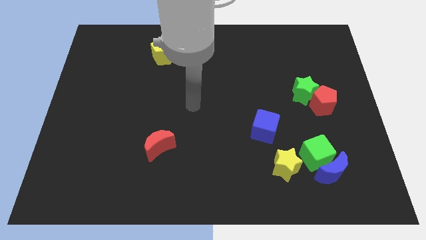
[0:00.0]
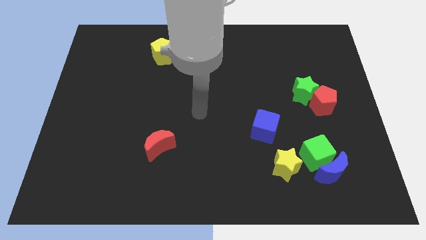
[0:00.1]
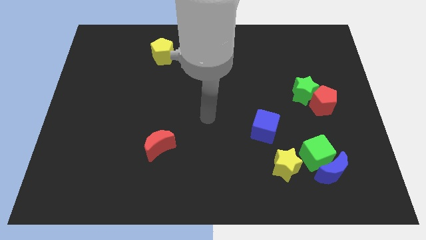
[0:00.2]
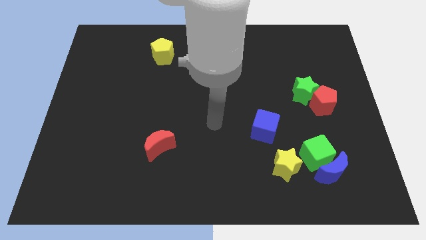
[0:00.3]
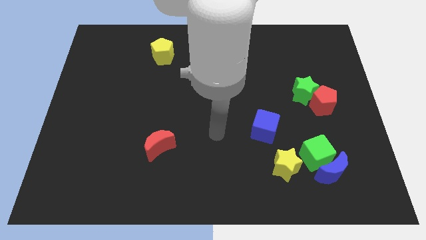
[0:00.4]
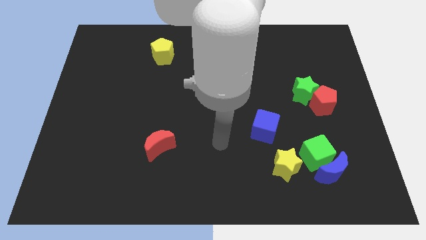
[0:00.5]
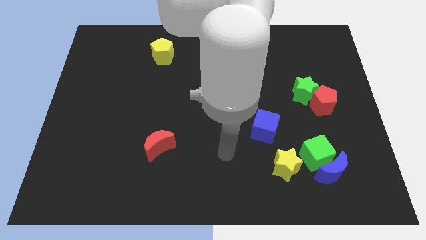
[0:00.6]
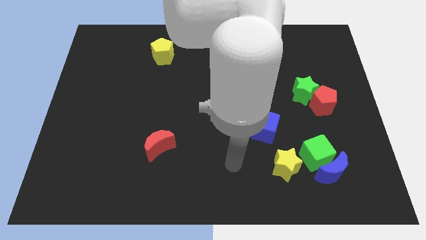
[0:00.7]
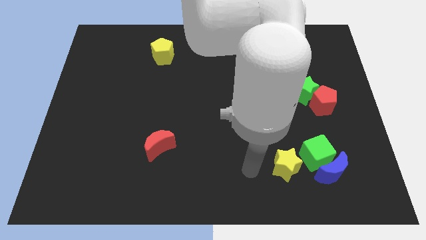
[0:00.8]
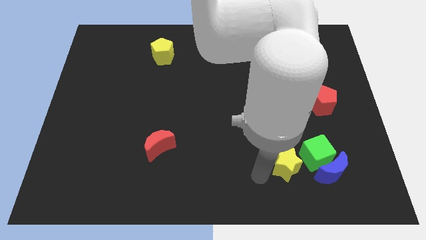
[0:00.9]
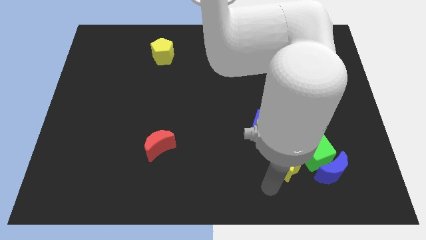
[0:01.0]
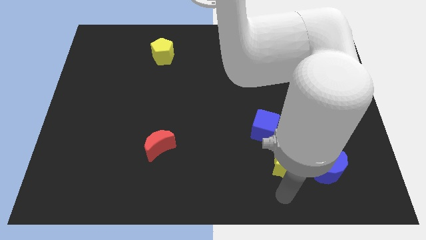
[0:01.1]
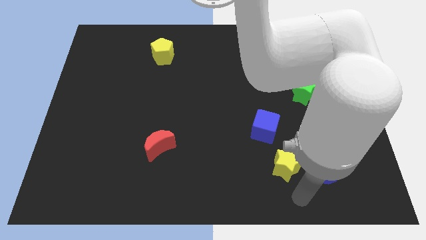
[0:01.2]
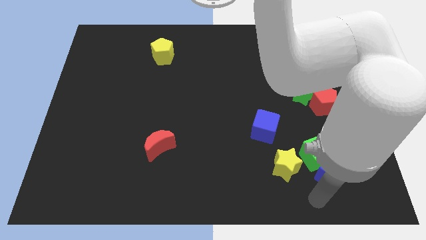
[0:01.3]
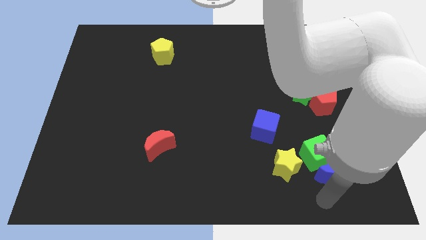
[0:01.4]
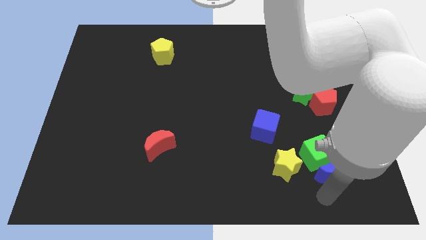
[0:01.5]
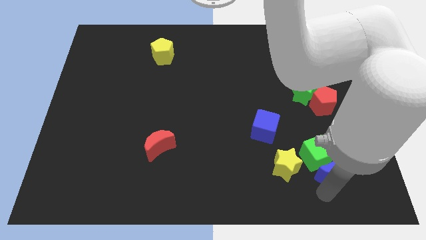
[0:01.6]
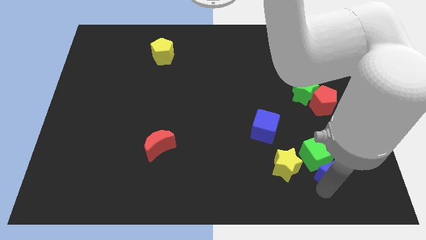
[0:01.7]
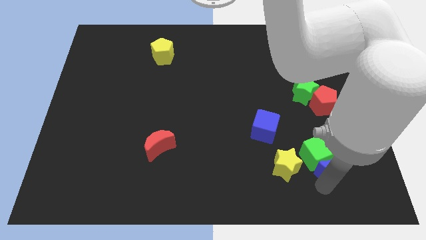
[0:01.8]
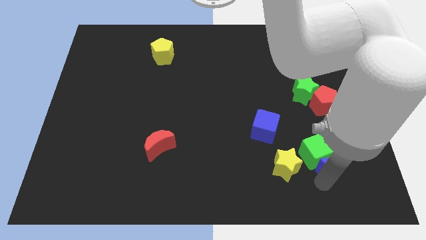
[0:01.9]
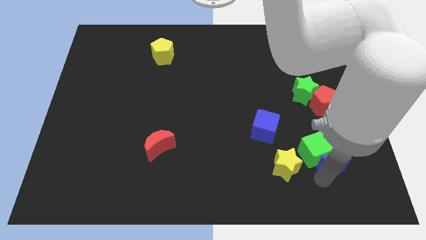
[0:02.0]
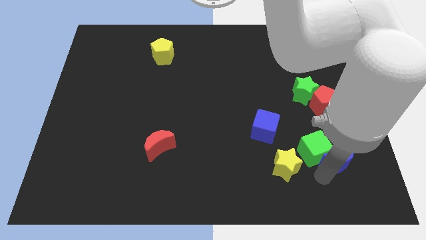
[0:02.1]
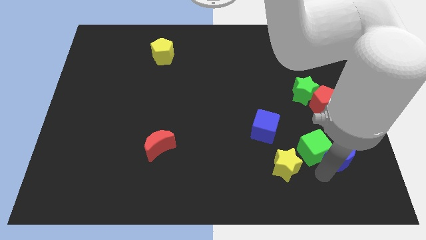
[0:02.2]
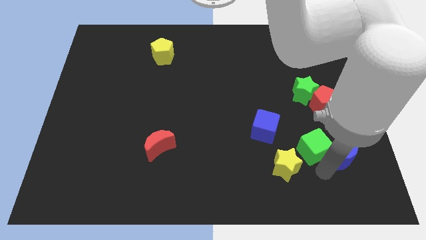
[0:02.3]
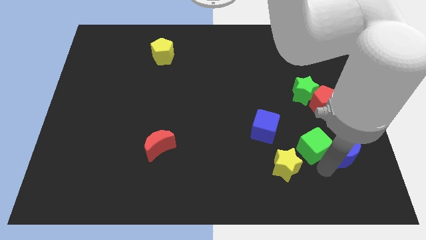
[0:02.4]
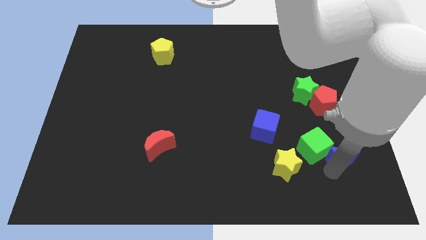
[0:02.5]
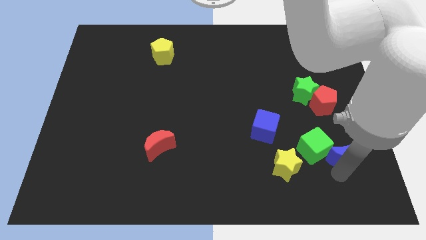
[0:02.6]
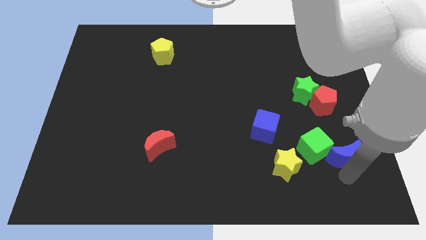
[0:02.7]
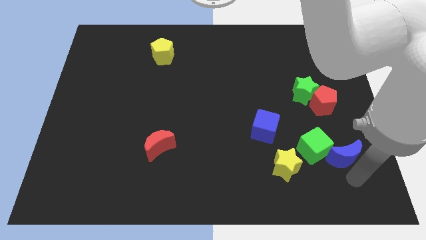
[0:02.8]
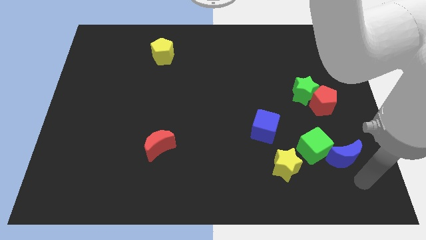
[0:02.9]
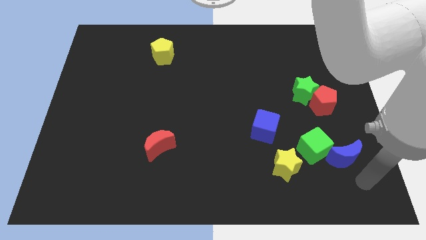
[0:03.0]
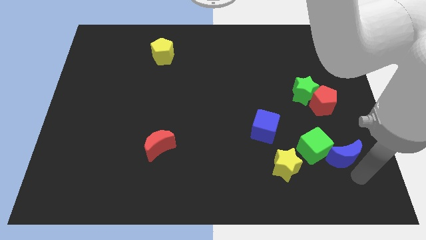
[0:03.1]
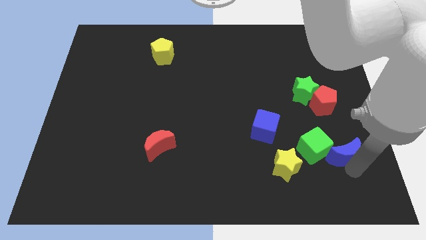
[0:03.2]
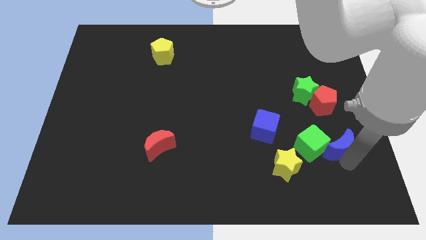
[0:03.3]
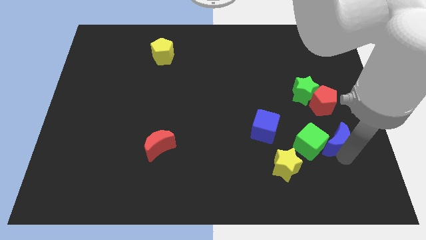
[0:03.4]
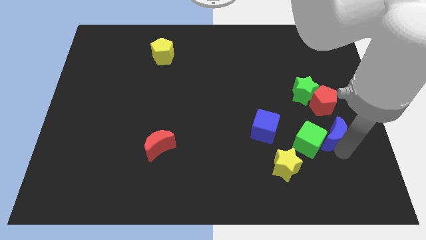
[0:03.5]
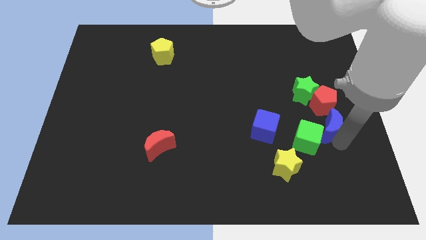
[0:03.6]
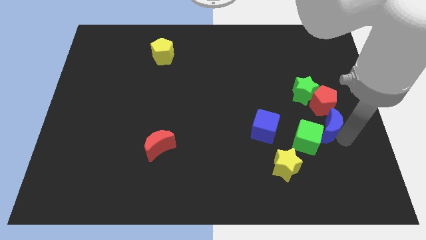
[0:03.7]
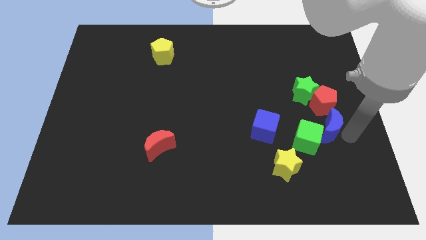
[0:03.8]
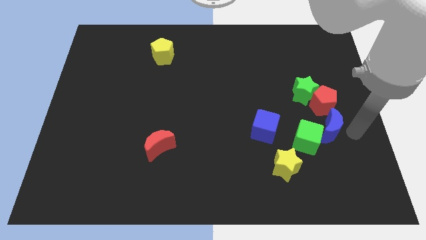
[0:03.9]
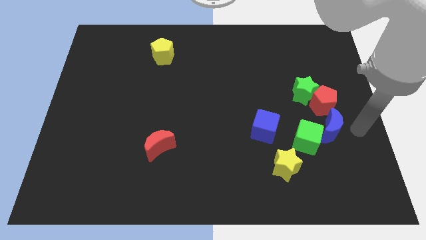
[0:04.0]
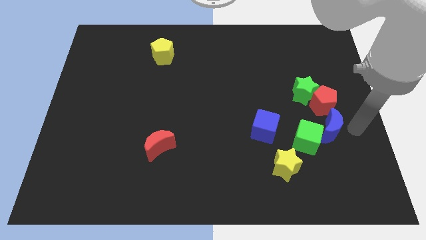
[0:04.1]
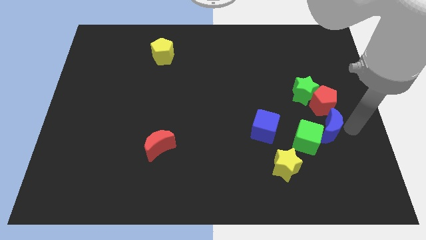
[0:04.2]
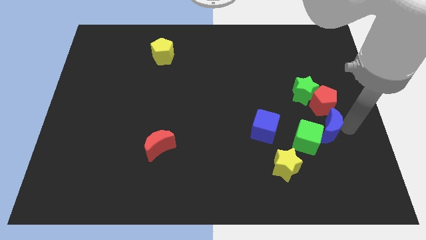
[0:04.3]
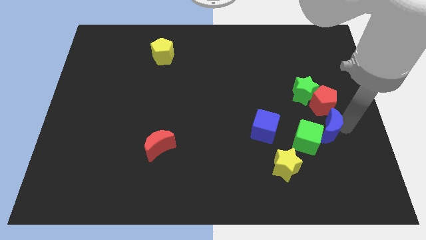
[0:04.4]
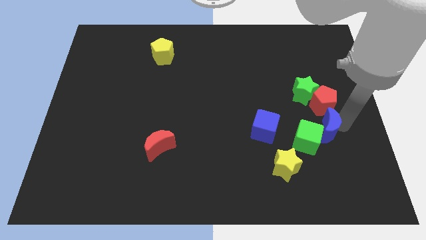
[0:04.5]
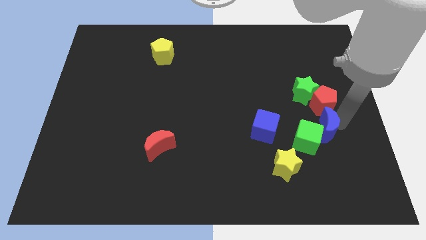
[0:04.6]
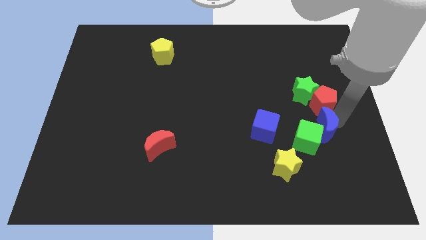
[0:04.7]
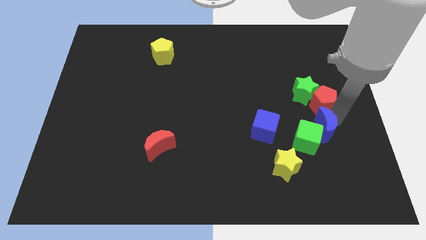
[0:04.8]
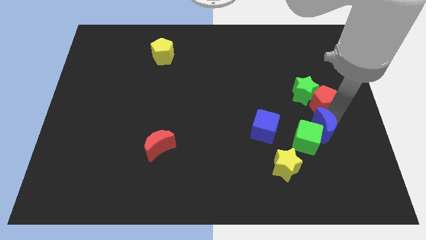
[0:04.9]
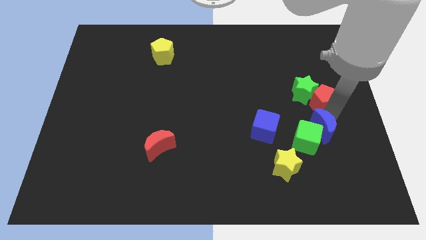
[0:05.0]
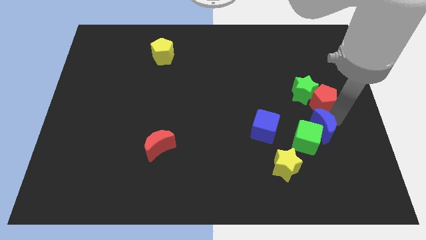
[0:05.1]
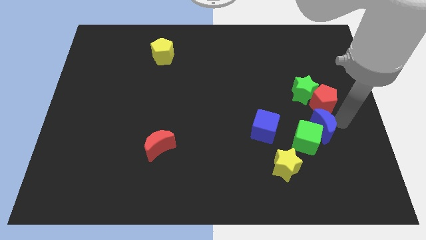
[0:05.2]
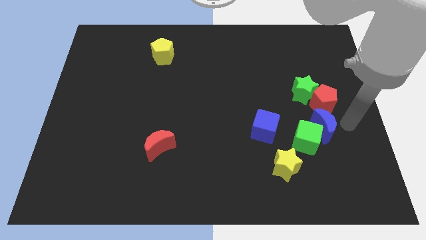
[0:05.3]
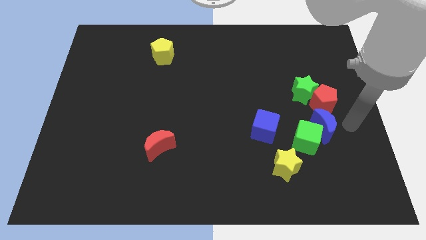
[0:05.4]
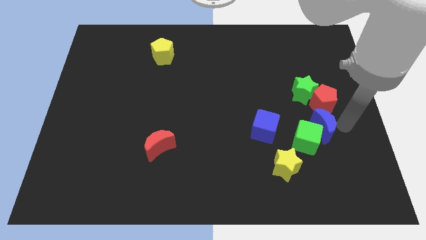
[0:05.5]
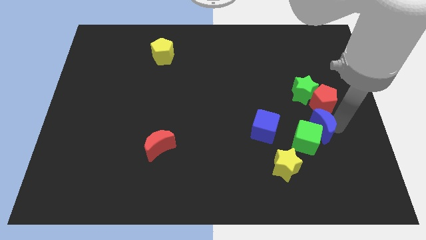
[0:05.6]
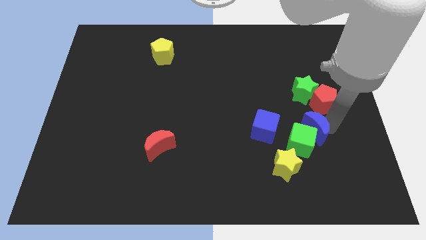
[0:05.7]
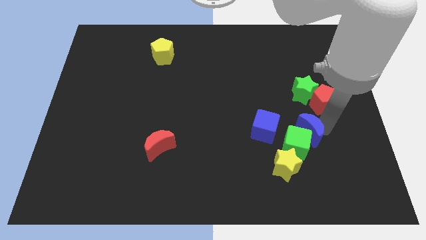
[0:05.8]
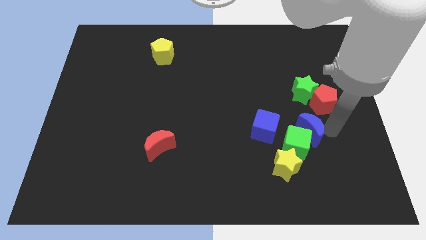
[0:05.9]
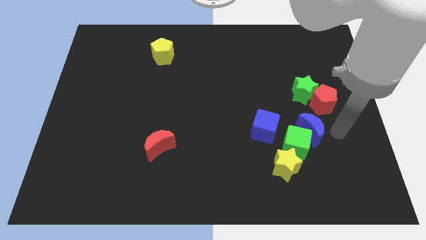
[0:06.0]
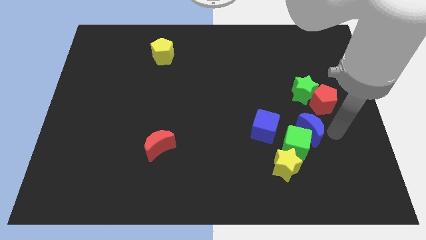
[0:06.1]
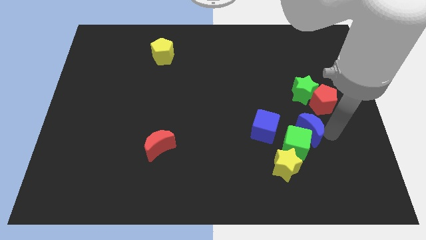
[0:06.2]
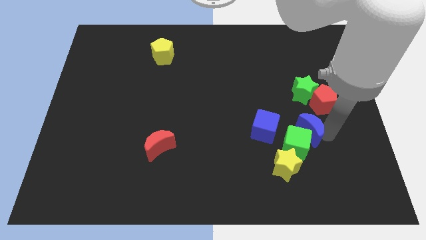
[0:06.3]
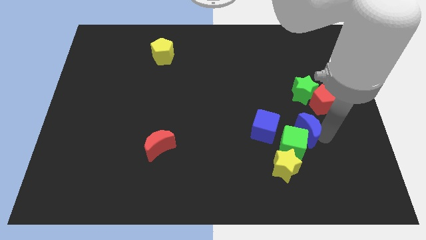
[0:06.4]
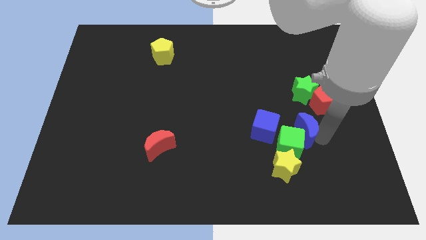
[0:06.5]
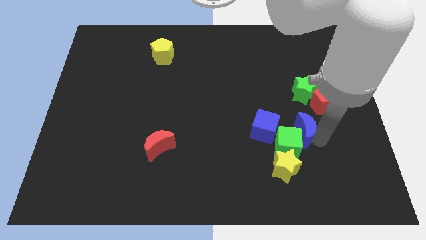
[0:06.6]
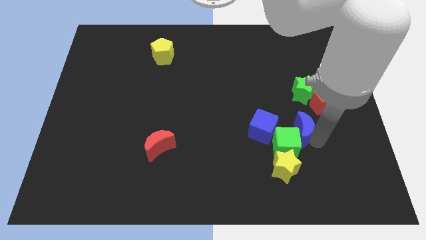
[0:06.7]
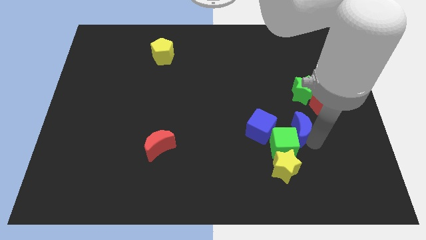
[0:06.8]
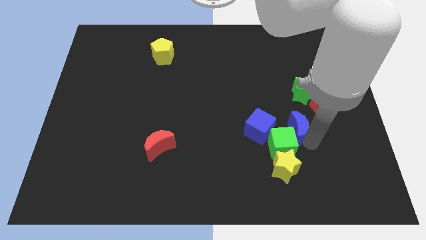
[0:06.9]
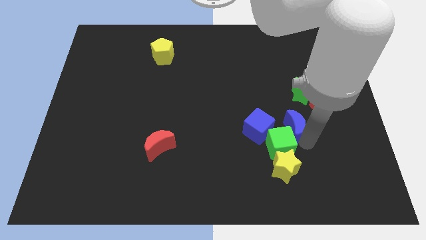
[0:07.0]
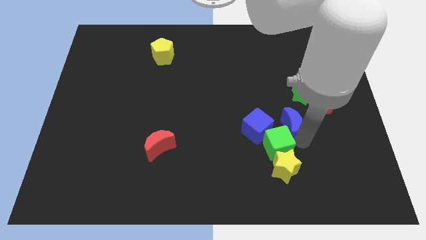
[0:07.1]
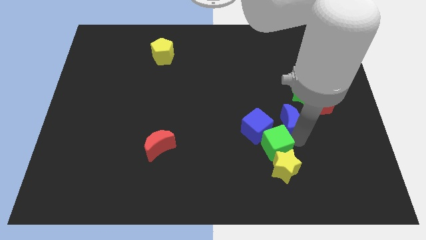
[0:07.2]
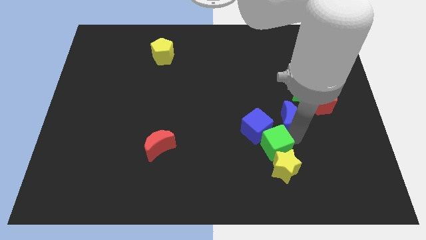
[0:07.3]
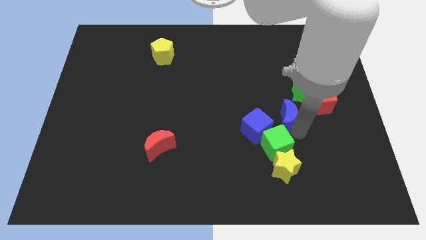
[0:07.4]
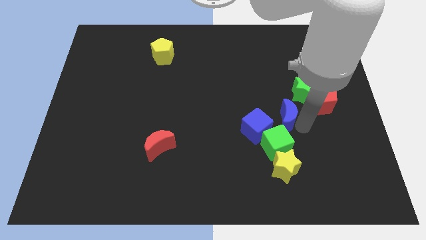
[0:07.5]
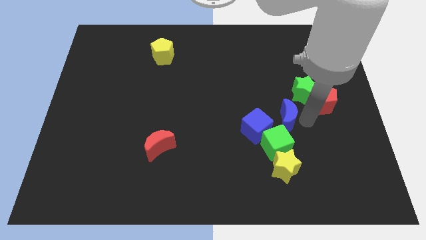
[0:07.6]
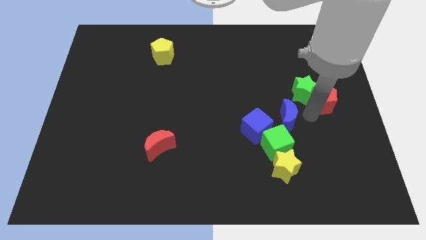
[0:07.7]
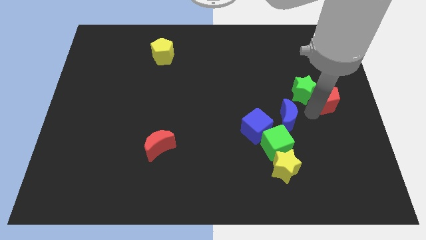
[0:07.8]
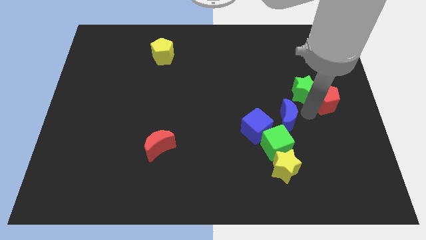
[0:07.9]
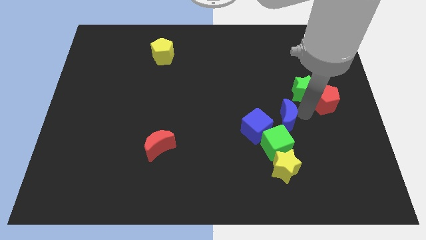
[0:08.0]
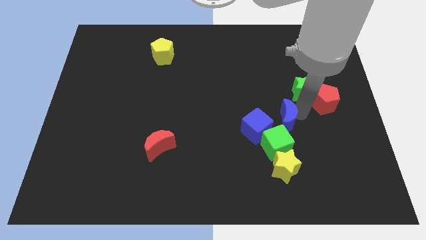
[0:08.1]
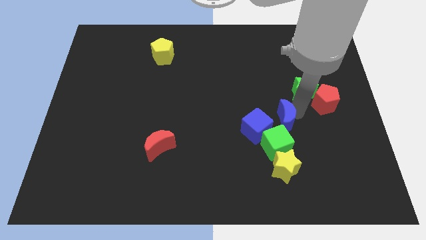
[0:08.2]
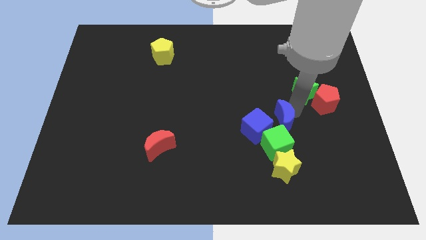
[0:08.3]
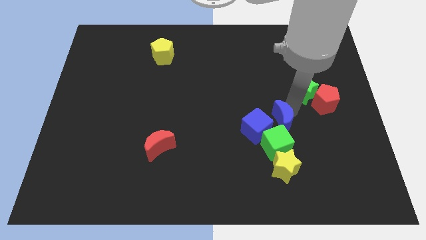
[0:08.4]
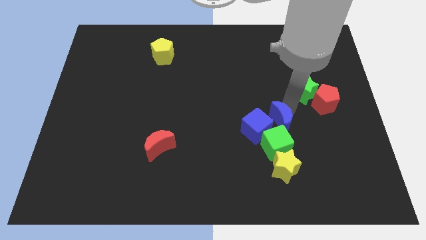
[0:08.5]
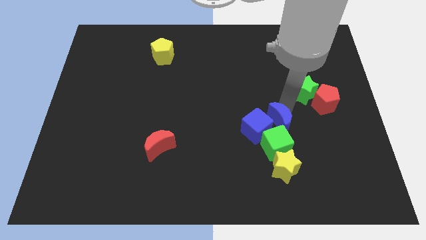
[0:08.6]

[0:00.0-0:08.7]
put the blue moon towards the blue cube
